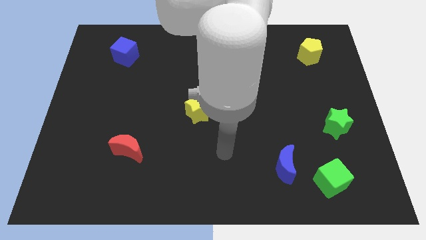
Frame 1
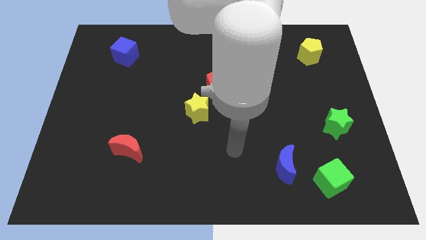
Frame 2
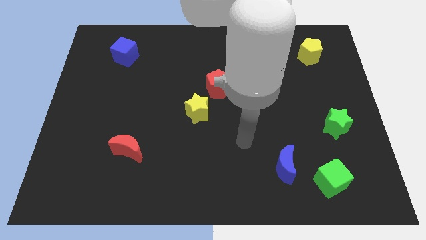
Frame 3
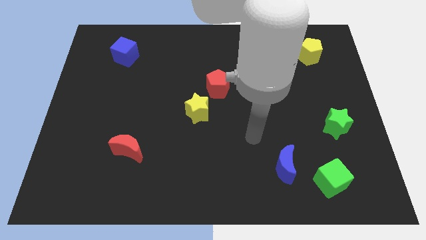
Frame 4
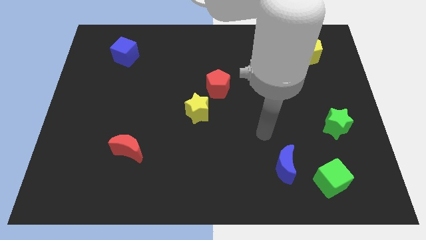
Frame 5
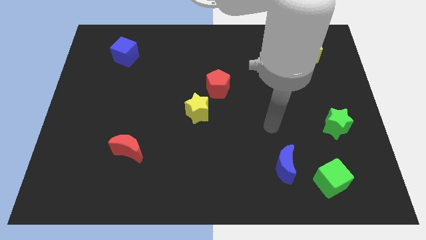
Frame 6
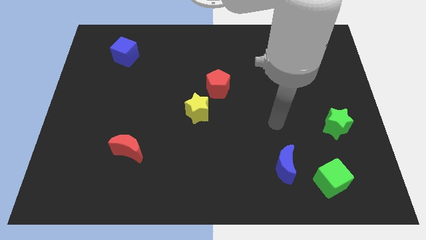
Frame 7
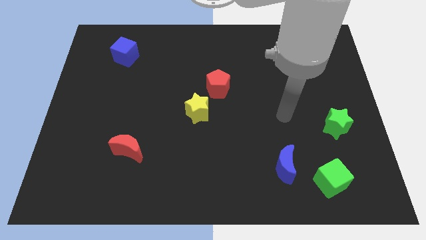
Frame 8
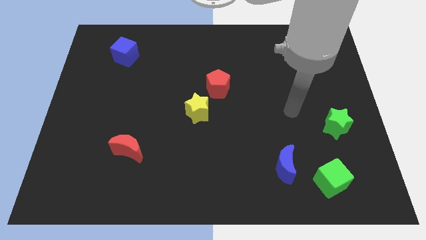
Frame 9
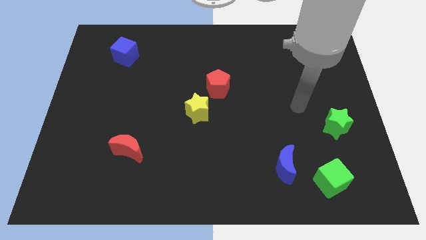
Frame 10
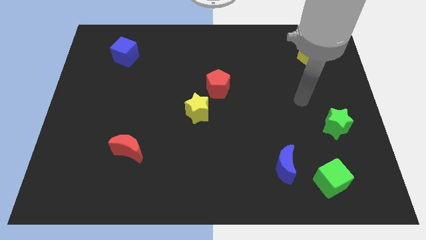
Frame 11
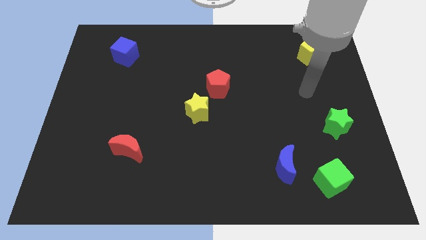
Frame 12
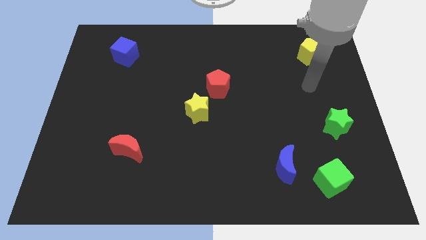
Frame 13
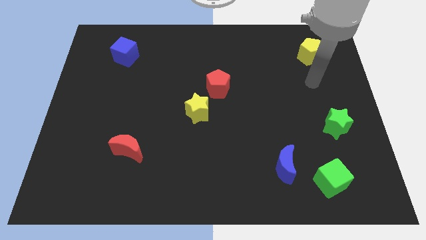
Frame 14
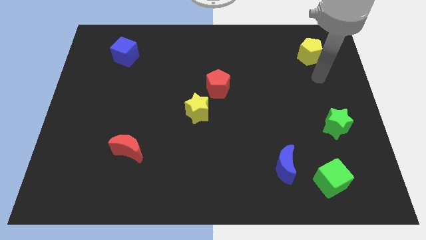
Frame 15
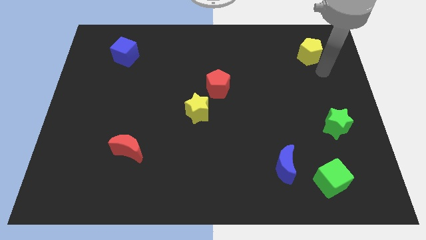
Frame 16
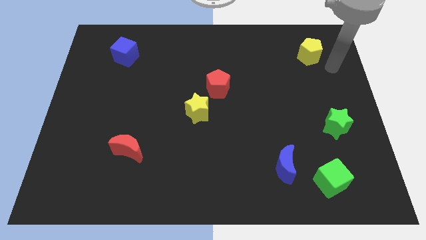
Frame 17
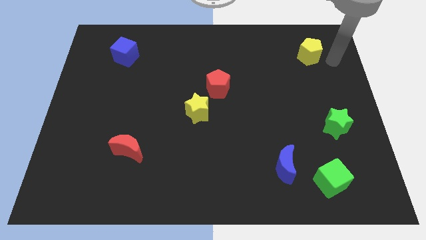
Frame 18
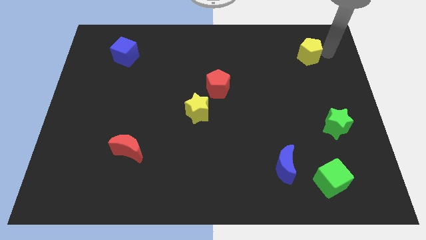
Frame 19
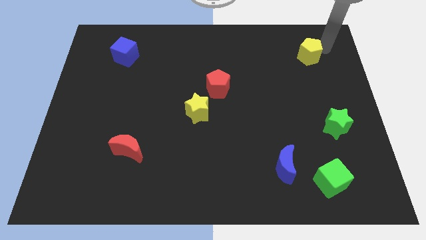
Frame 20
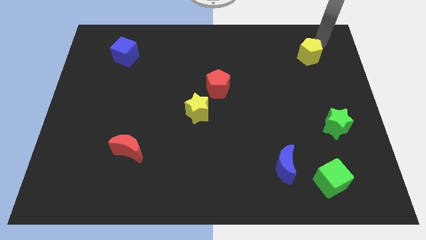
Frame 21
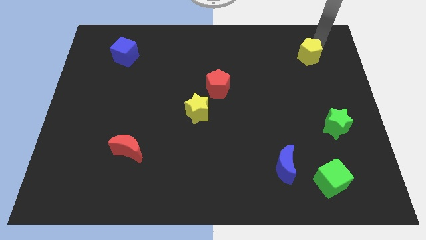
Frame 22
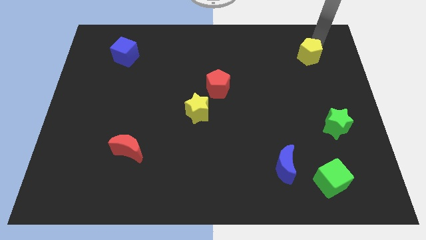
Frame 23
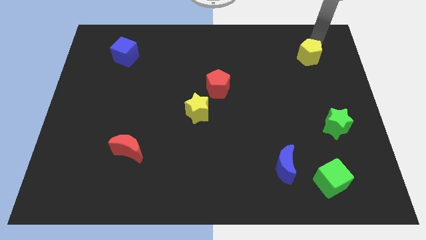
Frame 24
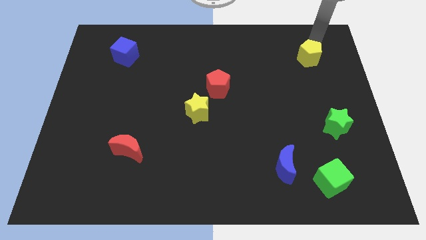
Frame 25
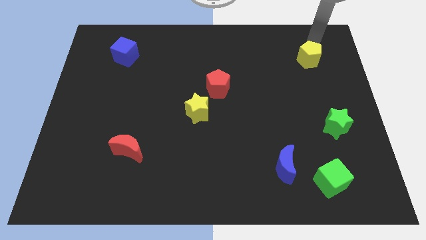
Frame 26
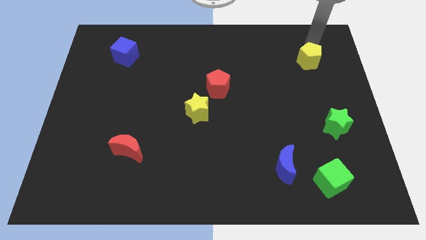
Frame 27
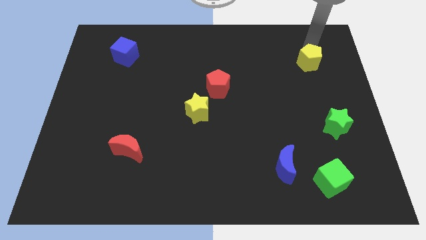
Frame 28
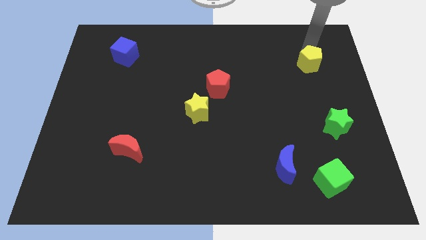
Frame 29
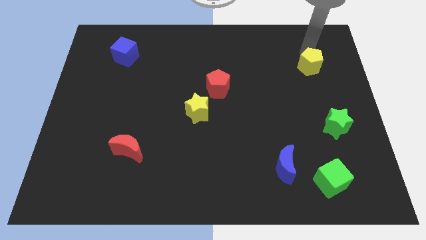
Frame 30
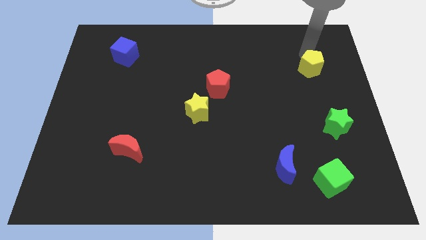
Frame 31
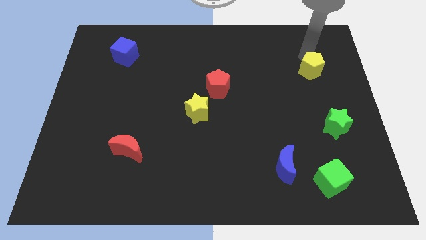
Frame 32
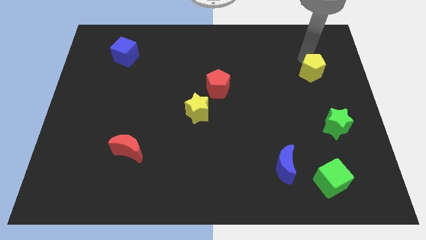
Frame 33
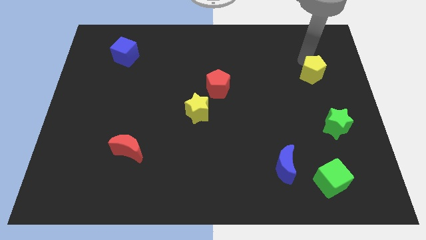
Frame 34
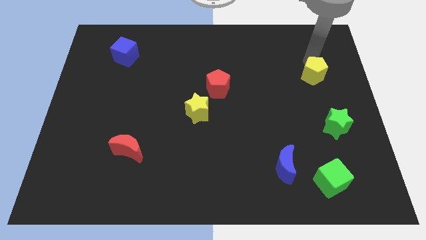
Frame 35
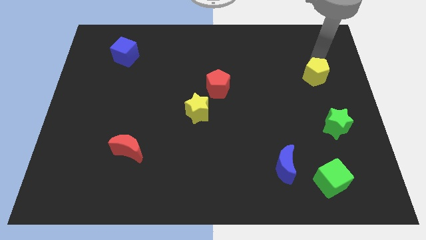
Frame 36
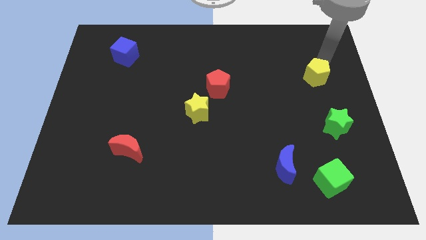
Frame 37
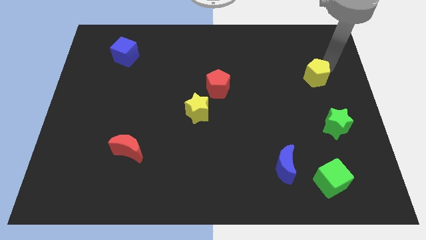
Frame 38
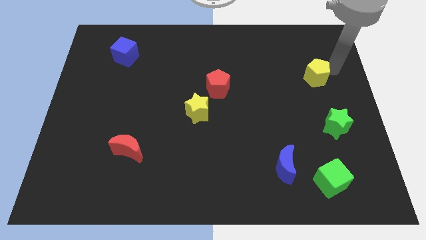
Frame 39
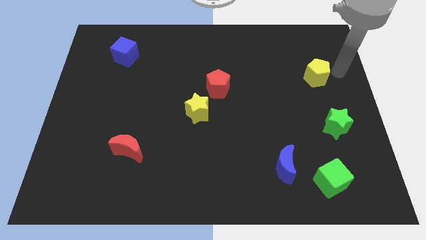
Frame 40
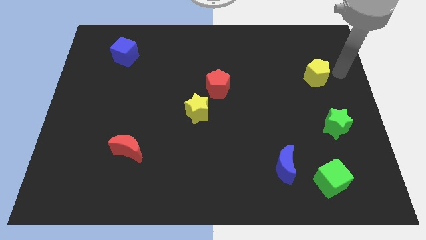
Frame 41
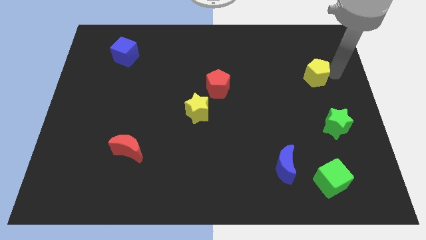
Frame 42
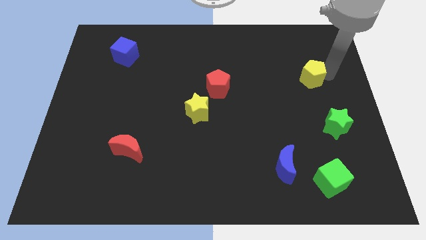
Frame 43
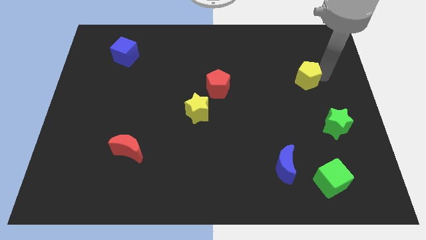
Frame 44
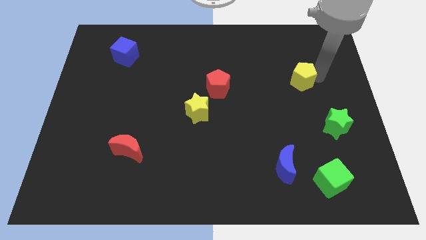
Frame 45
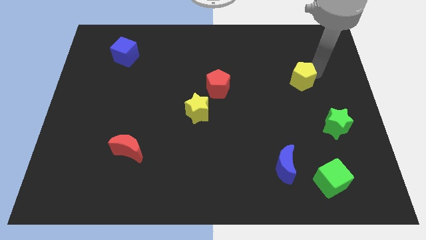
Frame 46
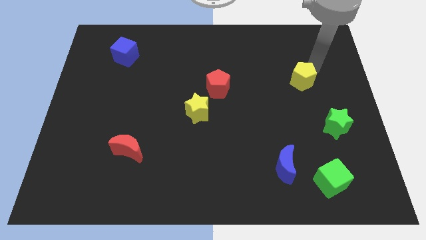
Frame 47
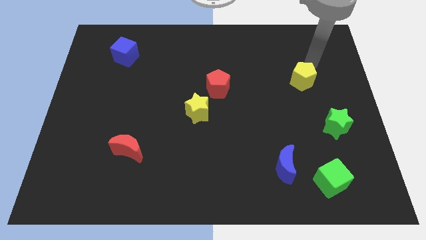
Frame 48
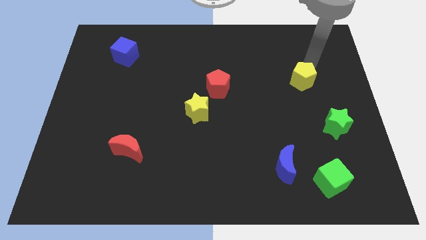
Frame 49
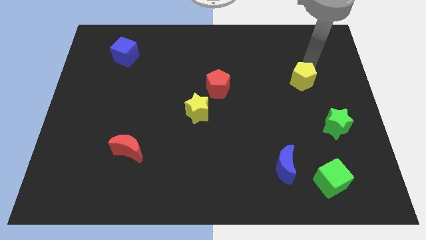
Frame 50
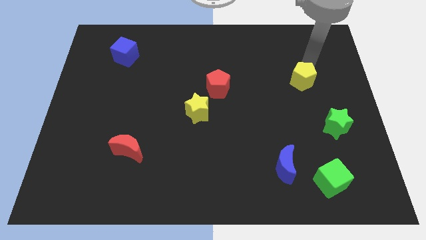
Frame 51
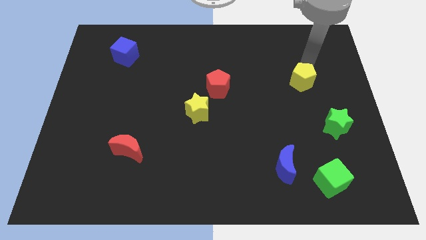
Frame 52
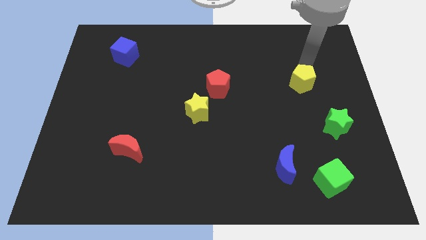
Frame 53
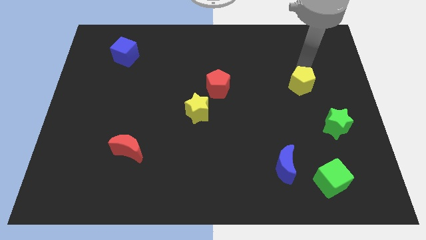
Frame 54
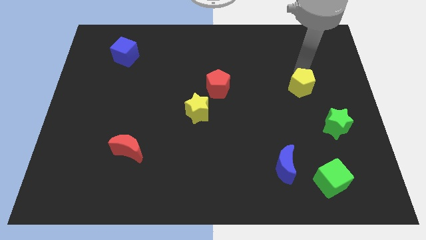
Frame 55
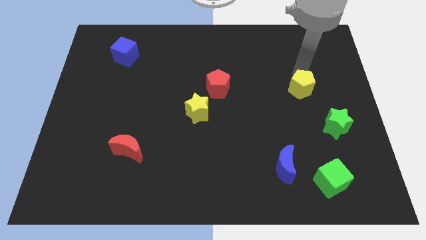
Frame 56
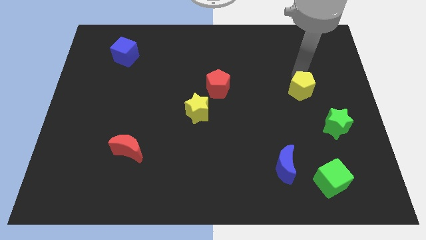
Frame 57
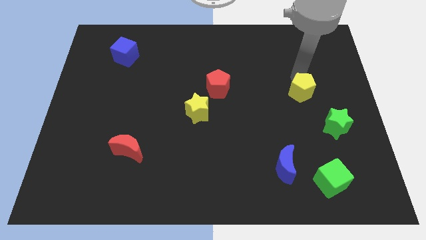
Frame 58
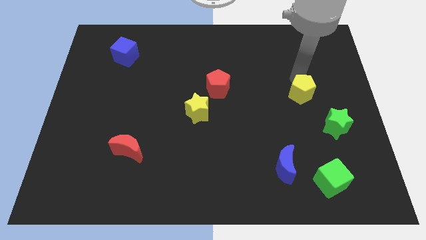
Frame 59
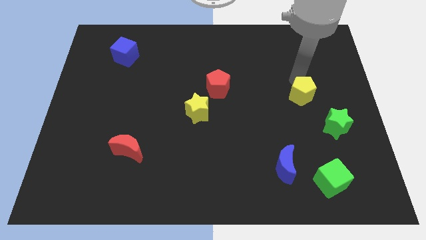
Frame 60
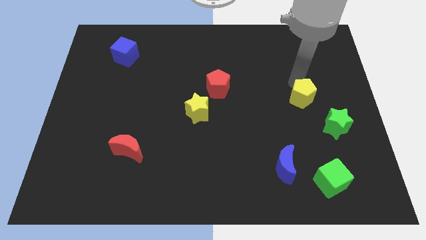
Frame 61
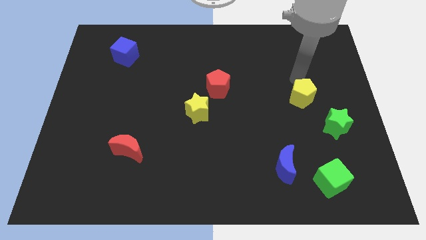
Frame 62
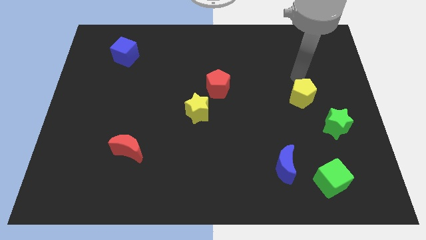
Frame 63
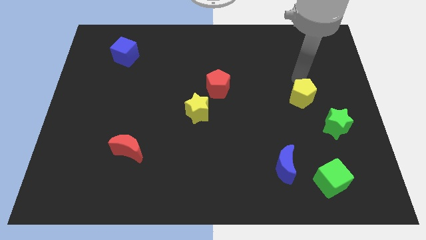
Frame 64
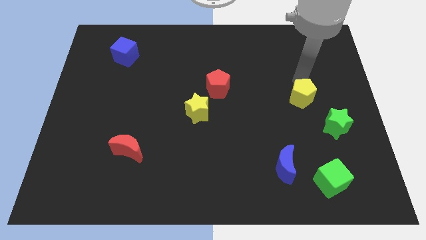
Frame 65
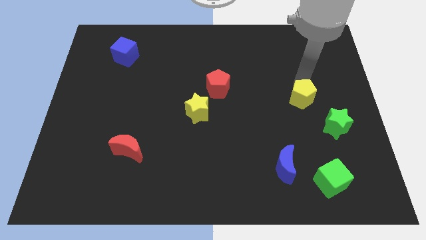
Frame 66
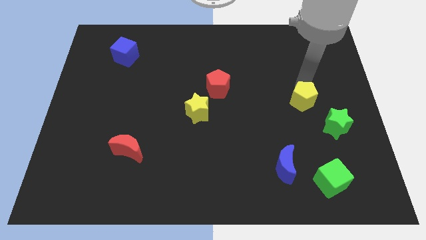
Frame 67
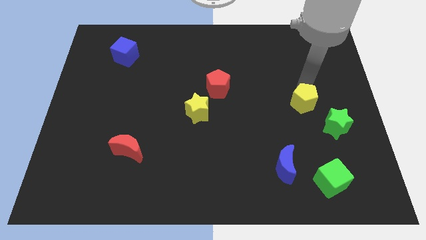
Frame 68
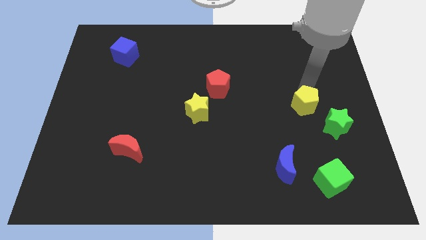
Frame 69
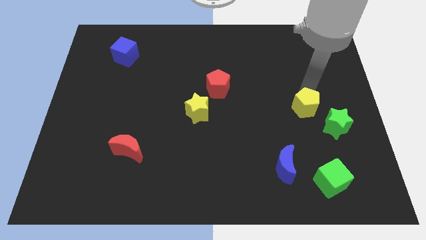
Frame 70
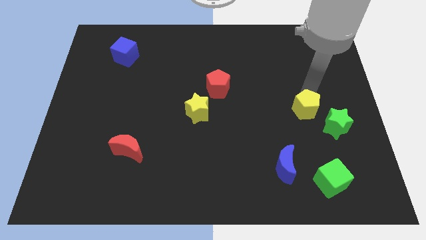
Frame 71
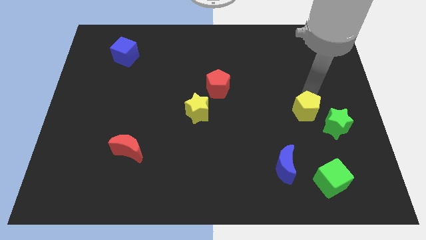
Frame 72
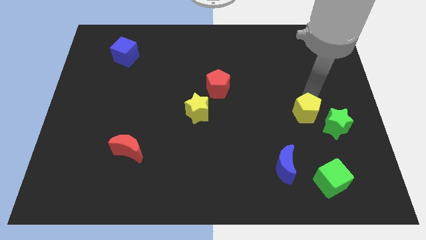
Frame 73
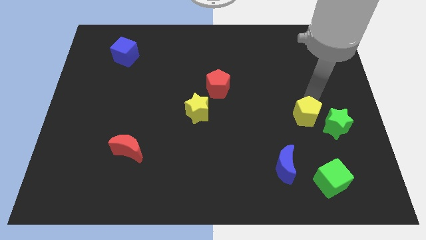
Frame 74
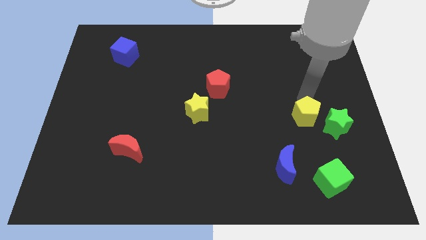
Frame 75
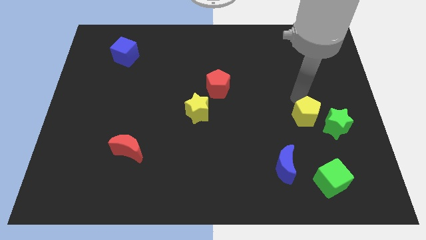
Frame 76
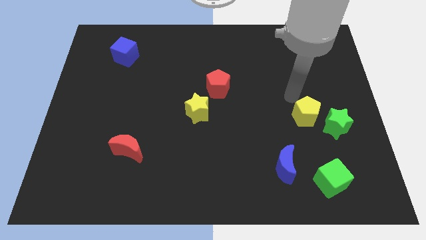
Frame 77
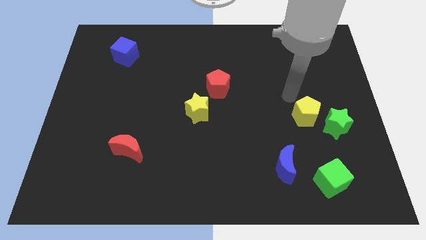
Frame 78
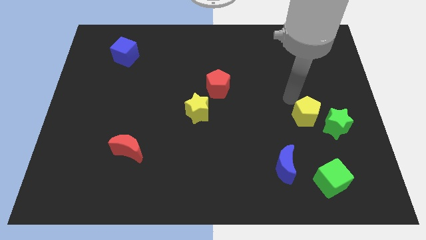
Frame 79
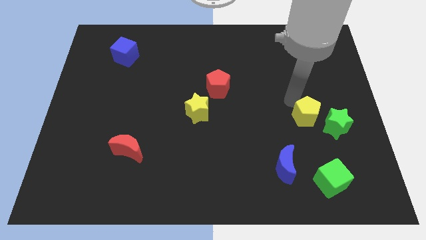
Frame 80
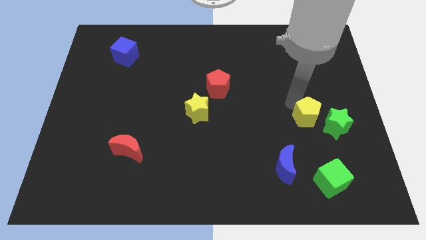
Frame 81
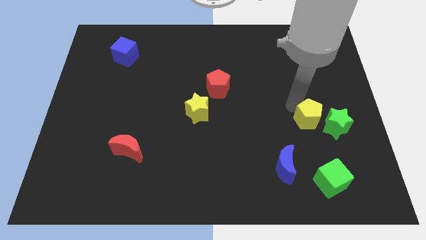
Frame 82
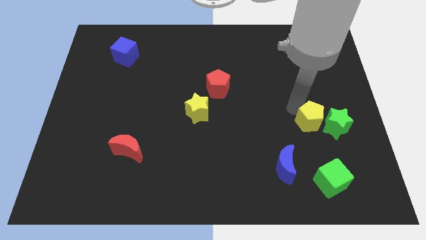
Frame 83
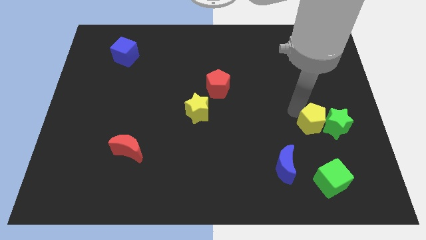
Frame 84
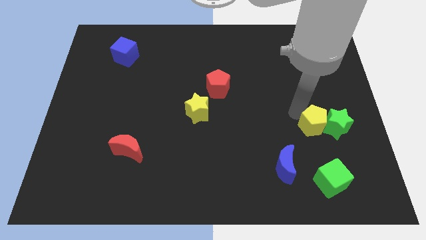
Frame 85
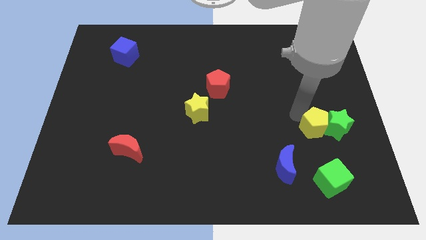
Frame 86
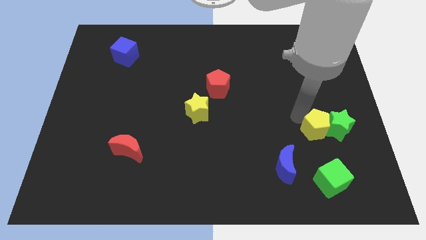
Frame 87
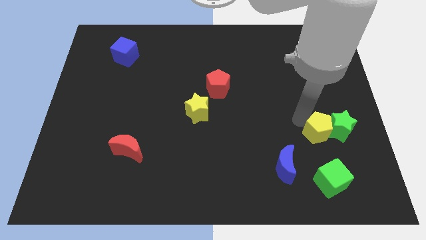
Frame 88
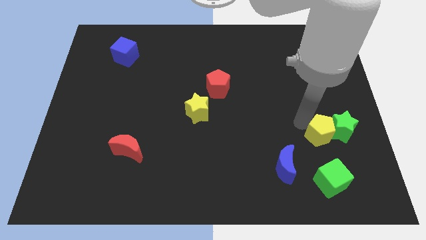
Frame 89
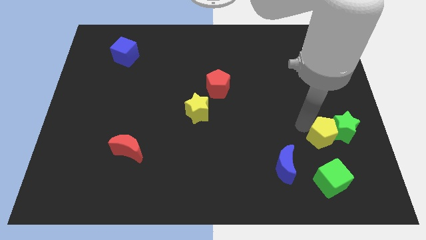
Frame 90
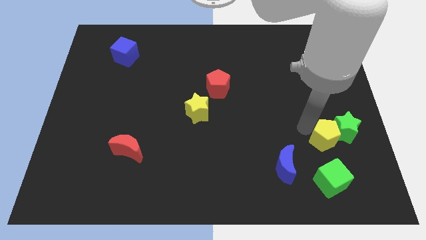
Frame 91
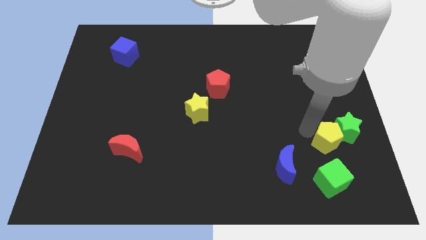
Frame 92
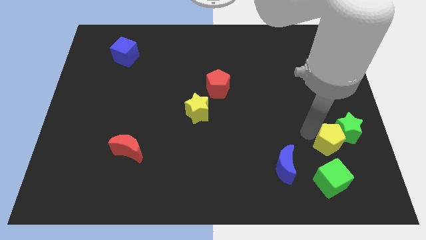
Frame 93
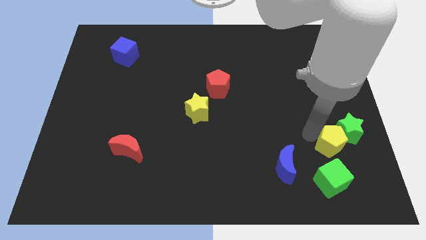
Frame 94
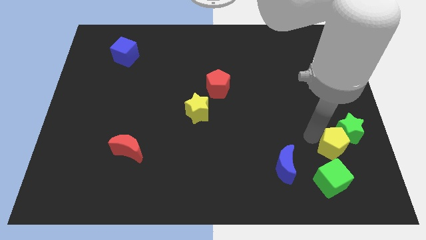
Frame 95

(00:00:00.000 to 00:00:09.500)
slide the yellow pentagon to the bottom of the green star
